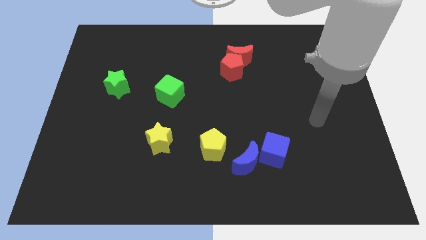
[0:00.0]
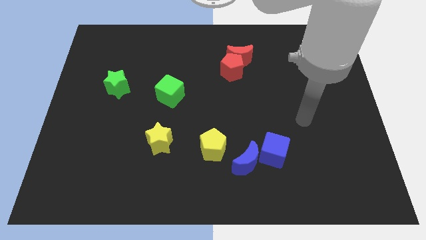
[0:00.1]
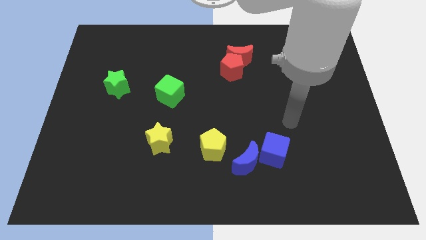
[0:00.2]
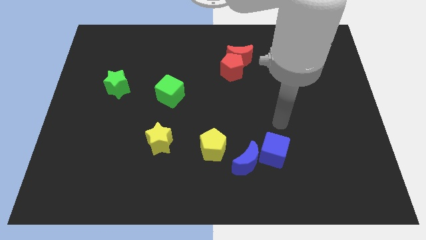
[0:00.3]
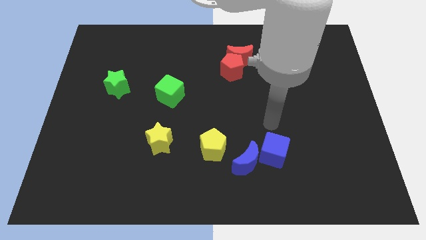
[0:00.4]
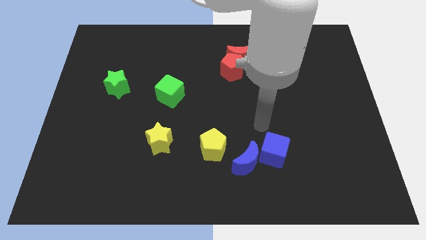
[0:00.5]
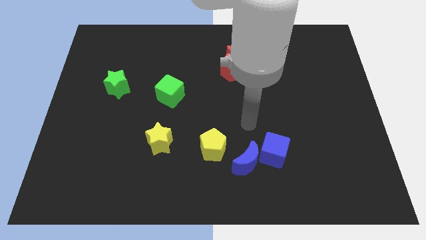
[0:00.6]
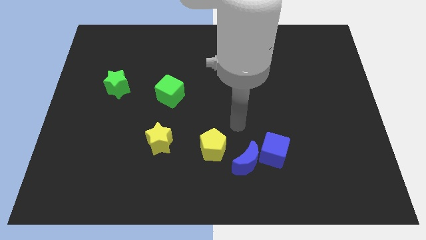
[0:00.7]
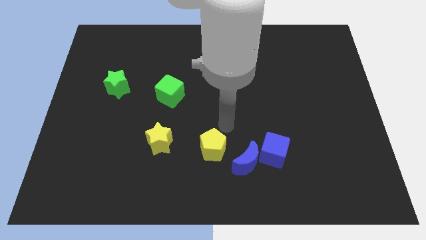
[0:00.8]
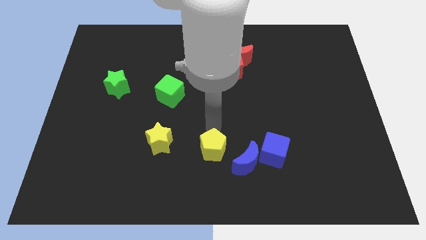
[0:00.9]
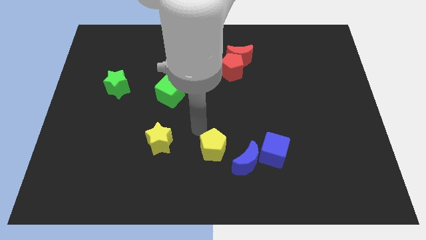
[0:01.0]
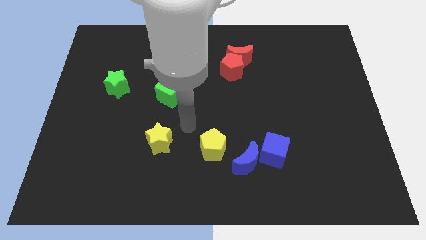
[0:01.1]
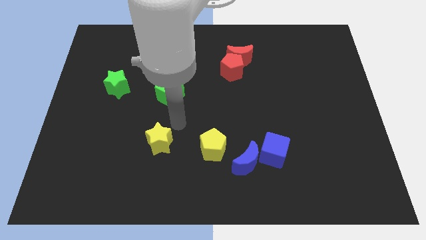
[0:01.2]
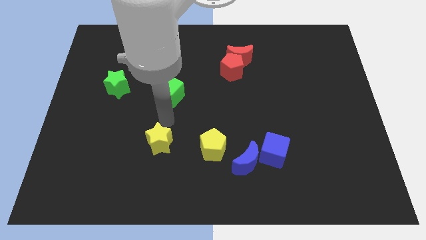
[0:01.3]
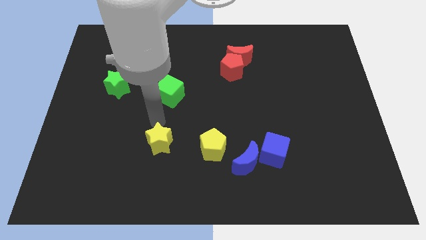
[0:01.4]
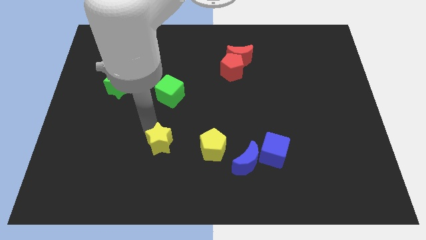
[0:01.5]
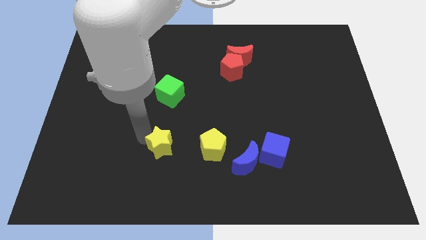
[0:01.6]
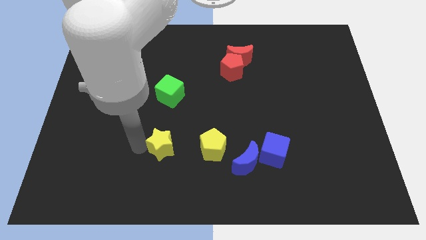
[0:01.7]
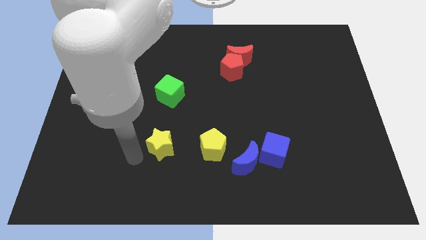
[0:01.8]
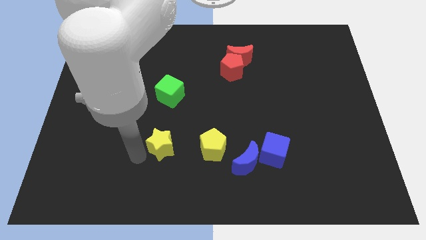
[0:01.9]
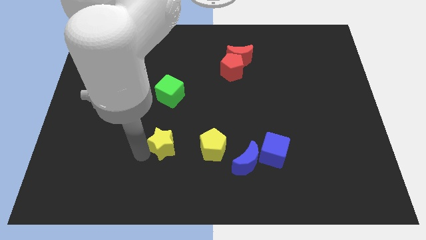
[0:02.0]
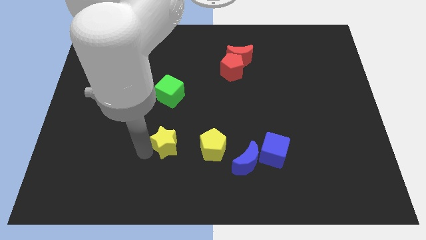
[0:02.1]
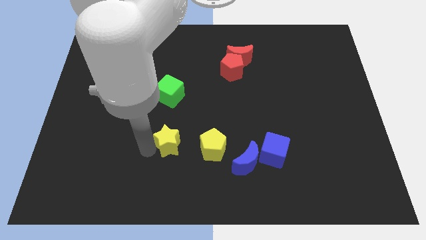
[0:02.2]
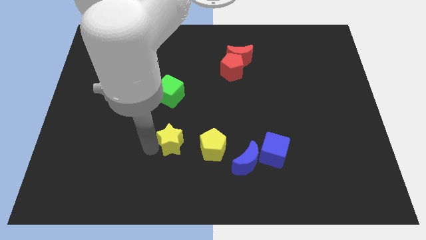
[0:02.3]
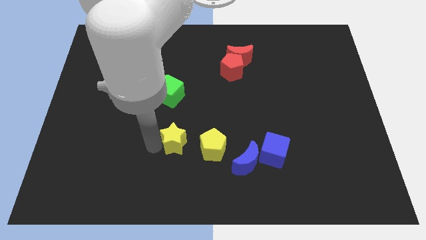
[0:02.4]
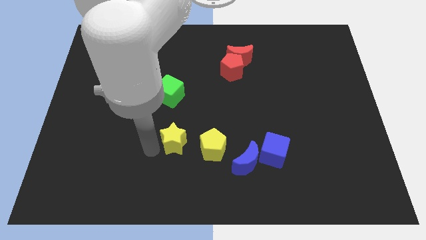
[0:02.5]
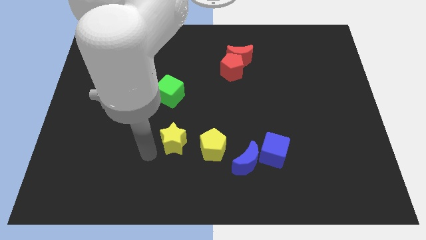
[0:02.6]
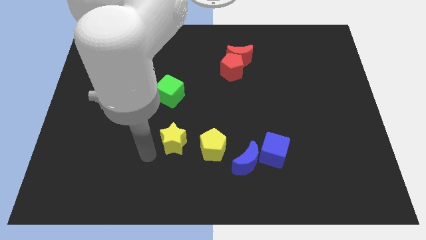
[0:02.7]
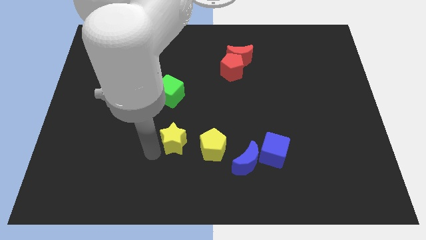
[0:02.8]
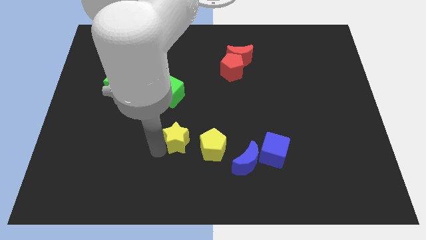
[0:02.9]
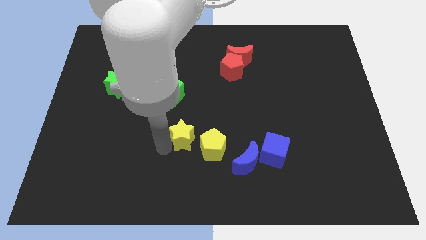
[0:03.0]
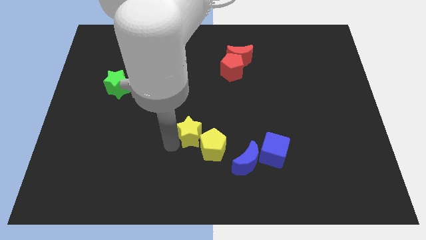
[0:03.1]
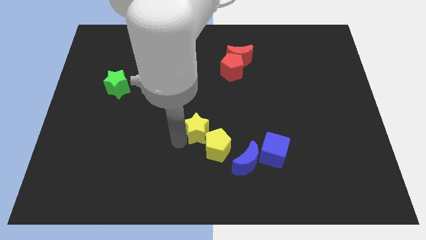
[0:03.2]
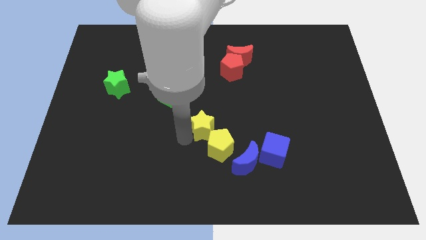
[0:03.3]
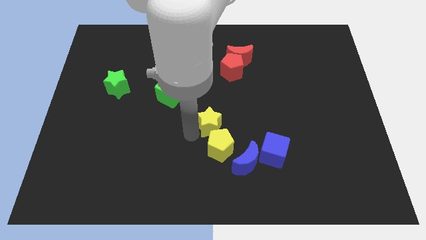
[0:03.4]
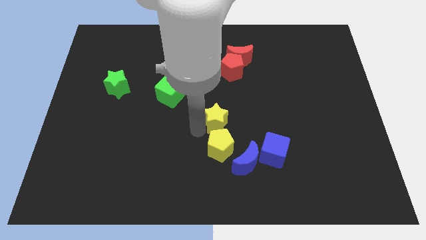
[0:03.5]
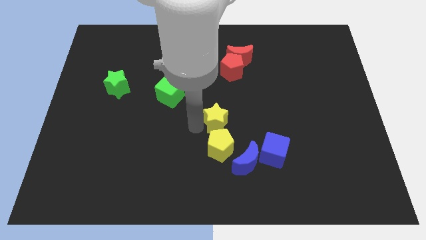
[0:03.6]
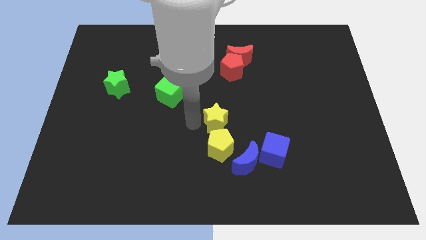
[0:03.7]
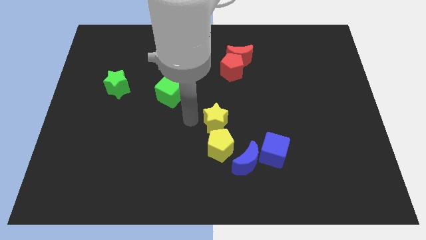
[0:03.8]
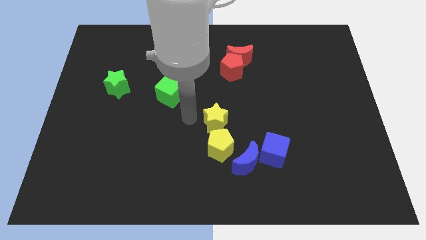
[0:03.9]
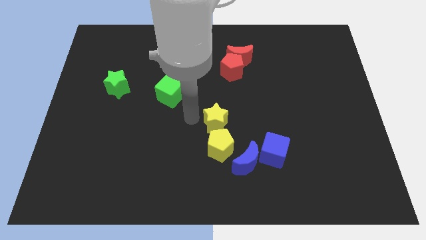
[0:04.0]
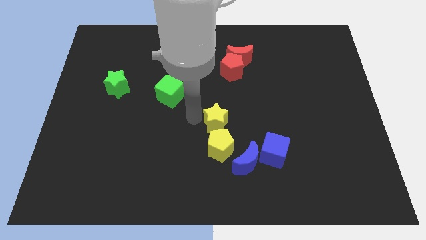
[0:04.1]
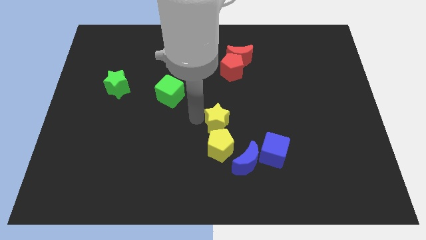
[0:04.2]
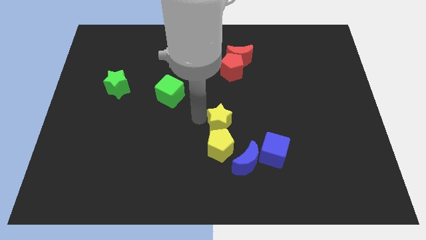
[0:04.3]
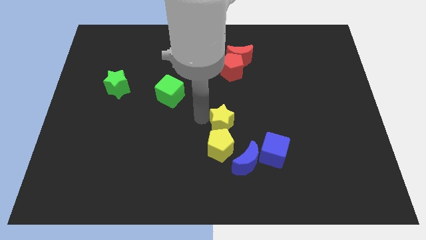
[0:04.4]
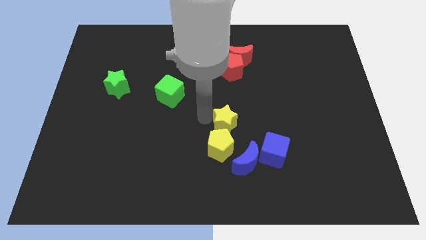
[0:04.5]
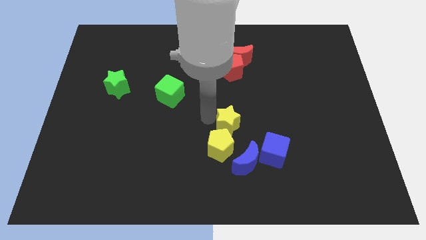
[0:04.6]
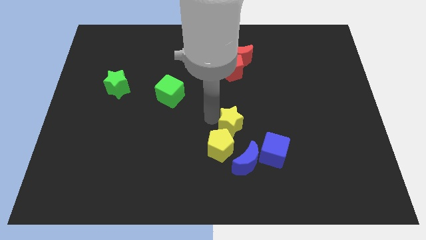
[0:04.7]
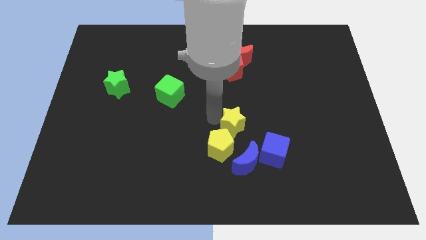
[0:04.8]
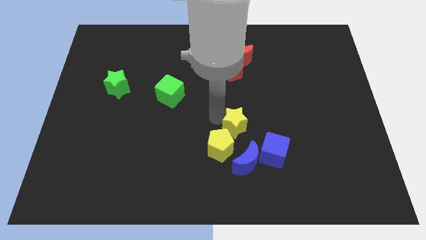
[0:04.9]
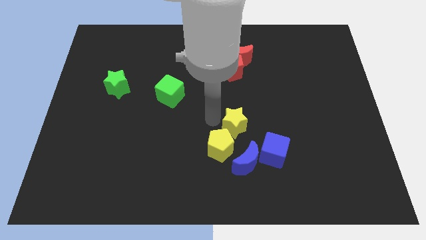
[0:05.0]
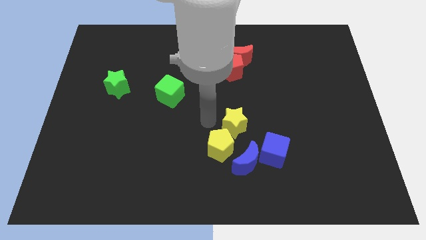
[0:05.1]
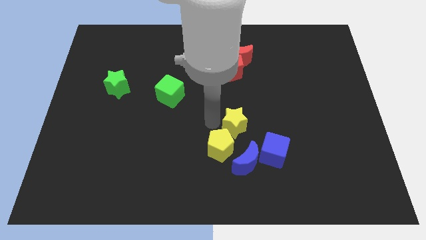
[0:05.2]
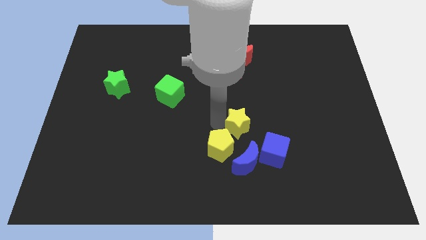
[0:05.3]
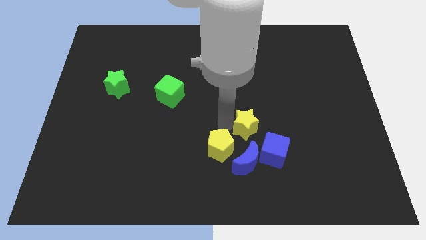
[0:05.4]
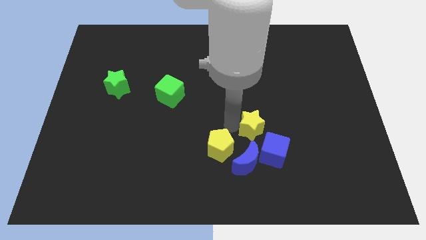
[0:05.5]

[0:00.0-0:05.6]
slide the yellow star right

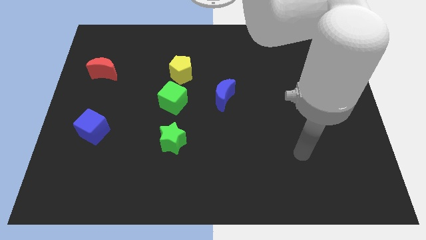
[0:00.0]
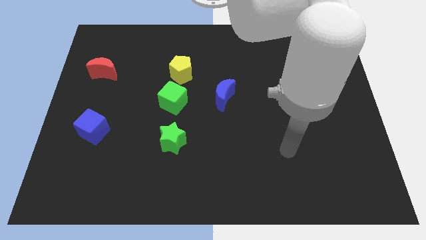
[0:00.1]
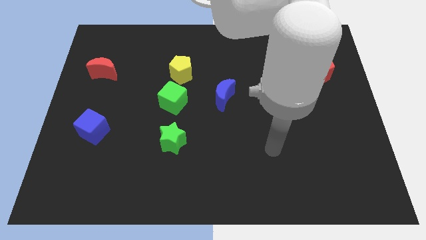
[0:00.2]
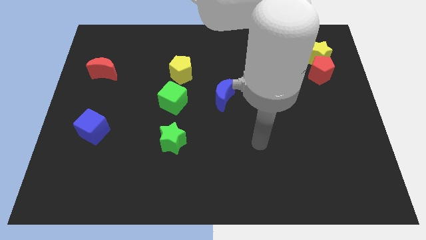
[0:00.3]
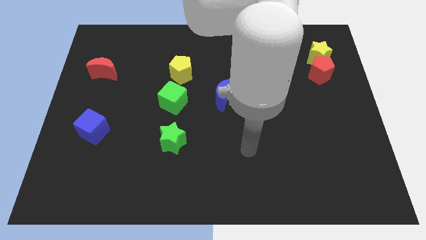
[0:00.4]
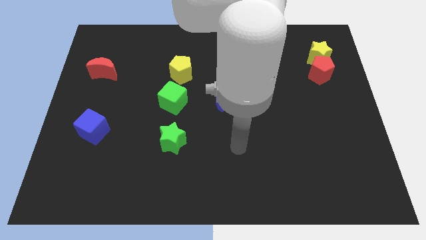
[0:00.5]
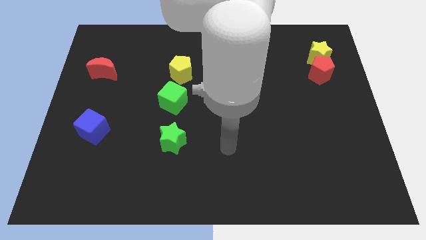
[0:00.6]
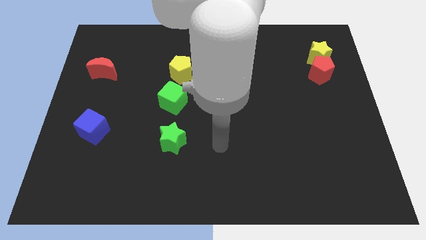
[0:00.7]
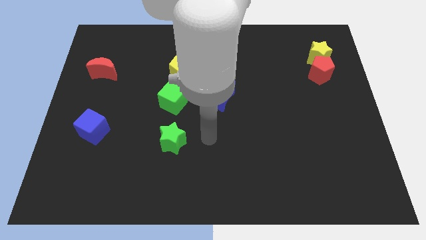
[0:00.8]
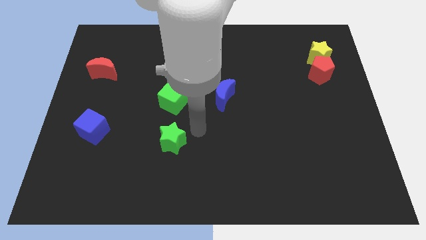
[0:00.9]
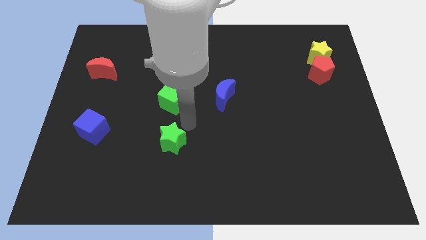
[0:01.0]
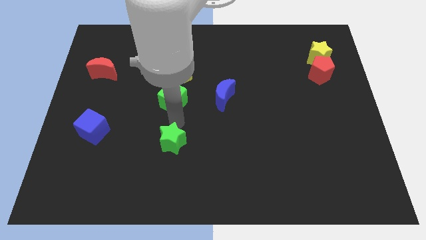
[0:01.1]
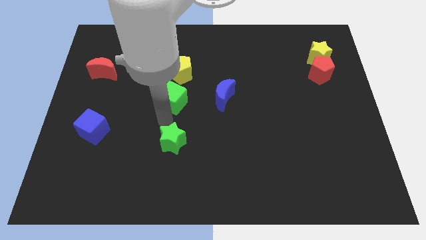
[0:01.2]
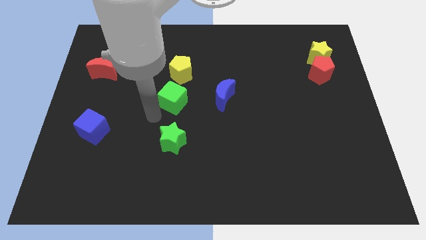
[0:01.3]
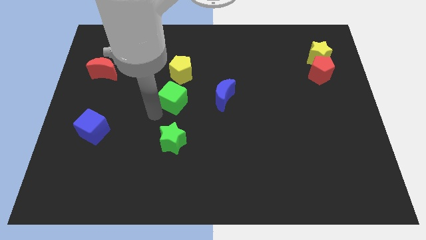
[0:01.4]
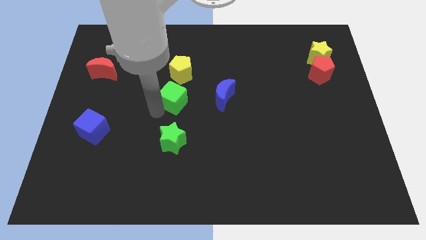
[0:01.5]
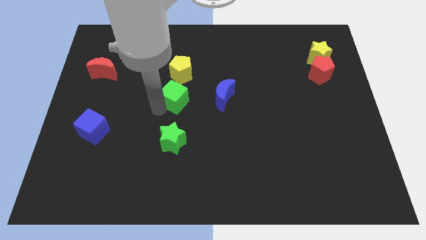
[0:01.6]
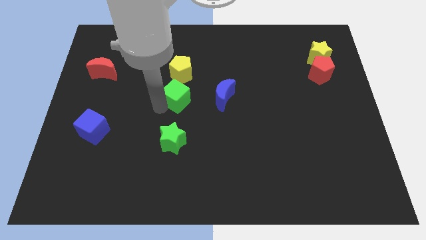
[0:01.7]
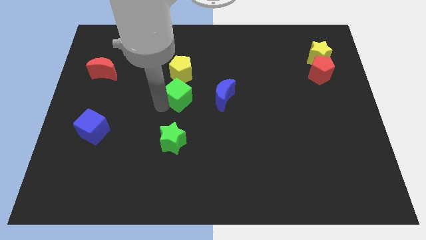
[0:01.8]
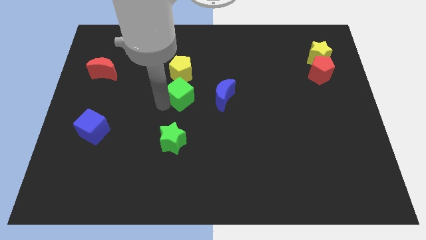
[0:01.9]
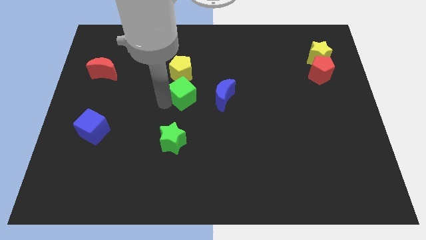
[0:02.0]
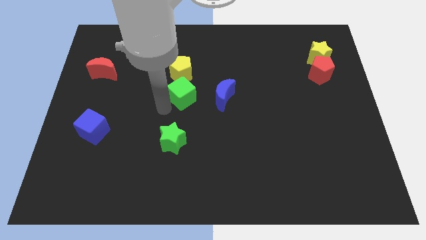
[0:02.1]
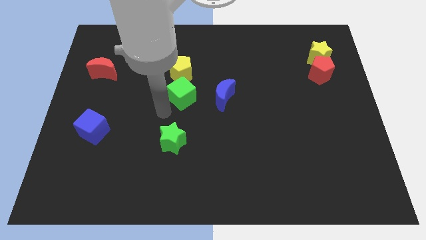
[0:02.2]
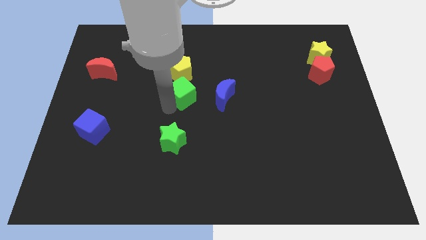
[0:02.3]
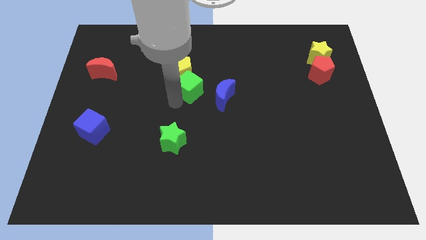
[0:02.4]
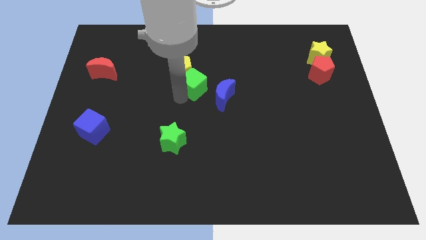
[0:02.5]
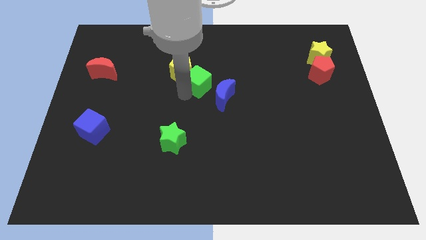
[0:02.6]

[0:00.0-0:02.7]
move the green cube up and to the right slightly
